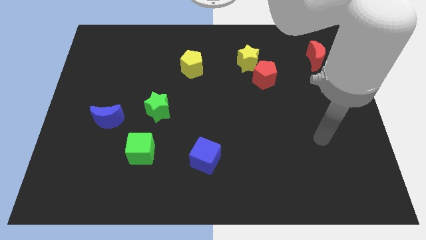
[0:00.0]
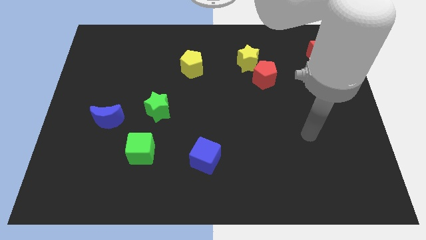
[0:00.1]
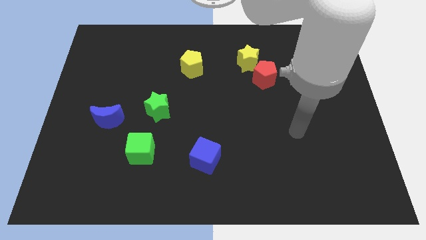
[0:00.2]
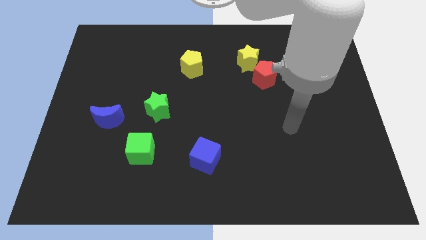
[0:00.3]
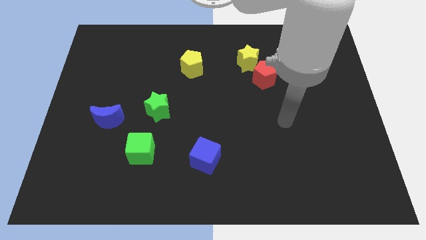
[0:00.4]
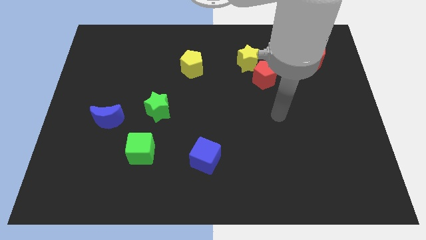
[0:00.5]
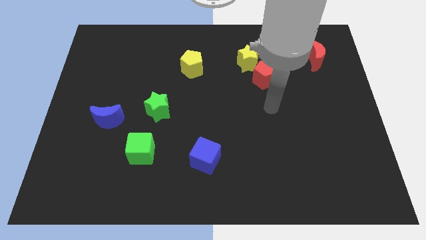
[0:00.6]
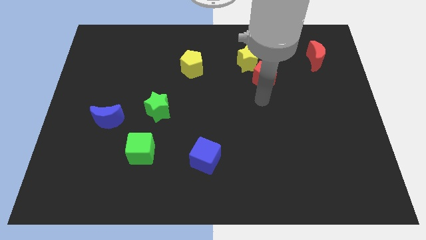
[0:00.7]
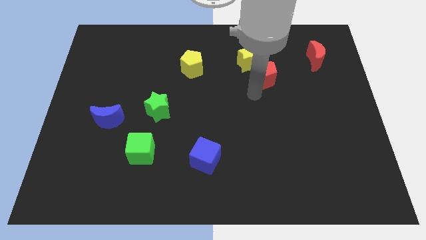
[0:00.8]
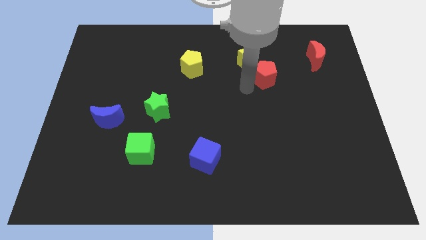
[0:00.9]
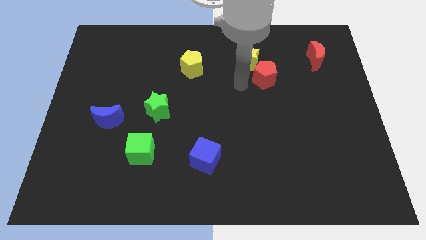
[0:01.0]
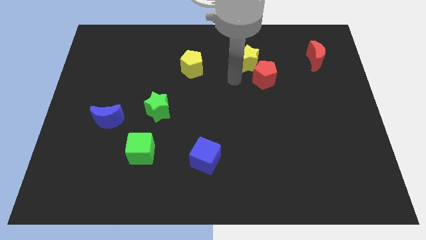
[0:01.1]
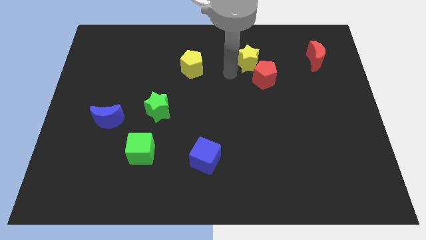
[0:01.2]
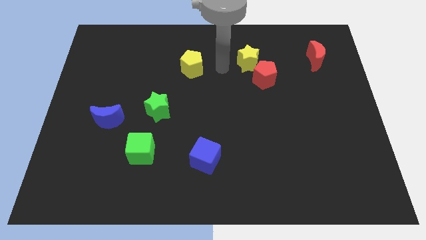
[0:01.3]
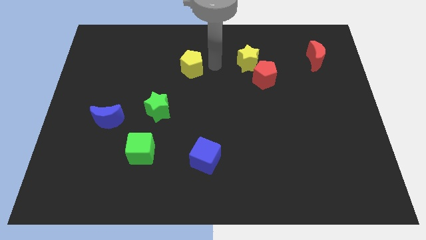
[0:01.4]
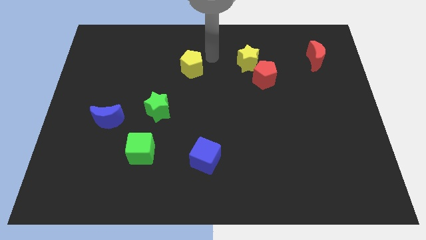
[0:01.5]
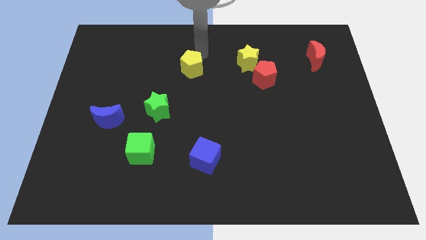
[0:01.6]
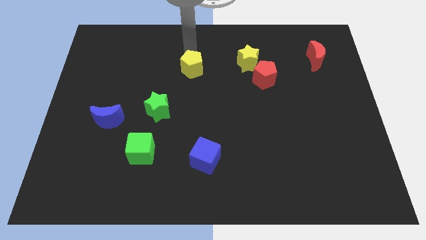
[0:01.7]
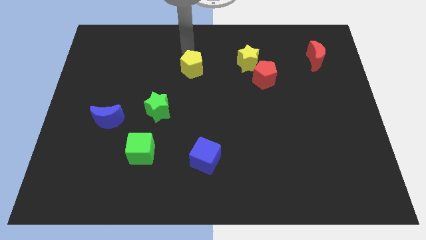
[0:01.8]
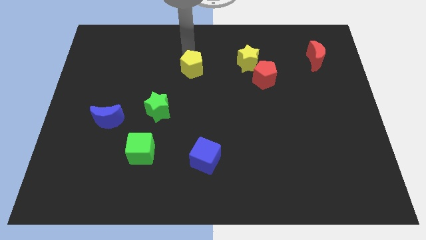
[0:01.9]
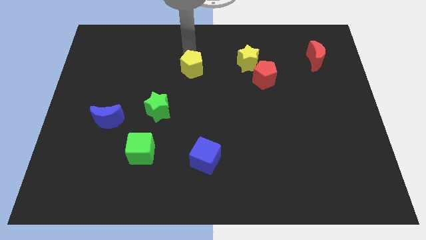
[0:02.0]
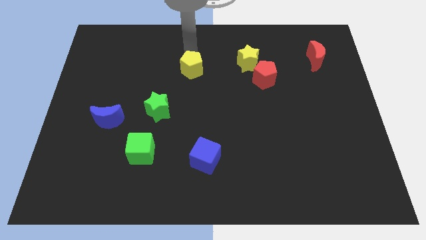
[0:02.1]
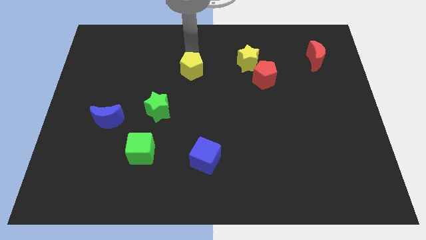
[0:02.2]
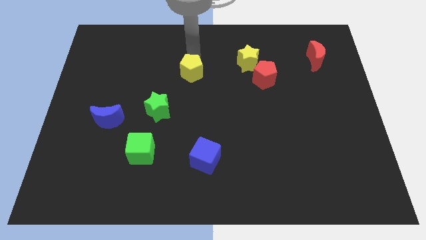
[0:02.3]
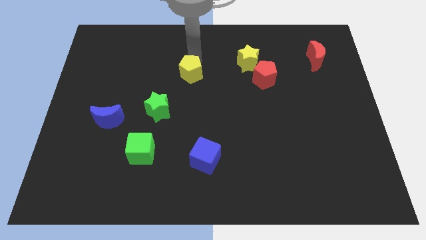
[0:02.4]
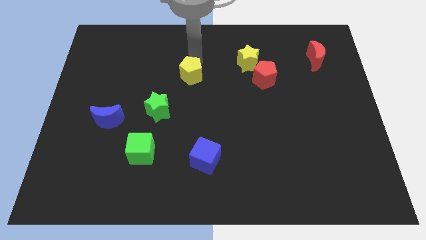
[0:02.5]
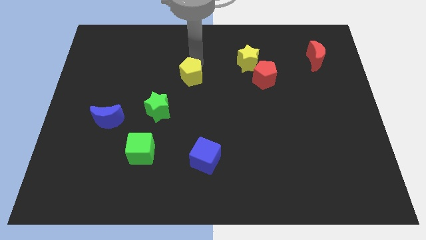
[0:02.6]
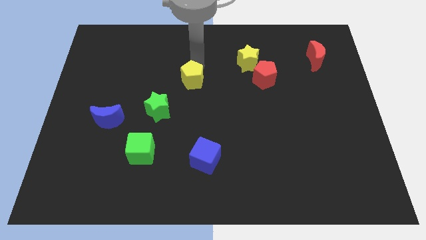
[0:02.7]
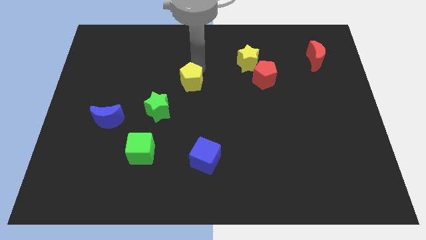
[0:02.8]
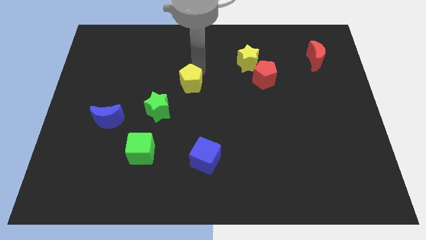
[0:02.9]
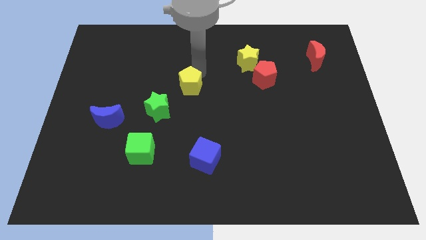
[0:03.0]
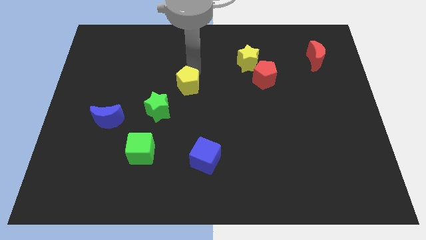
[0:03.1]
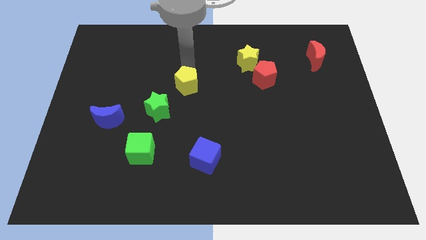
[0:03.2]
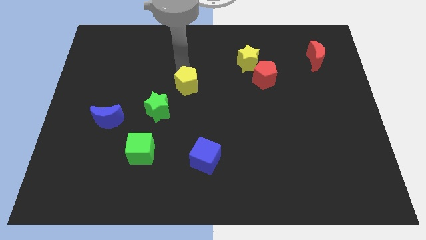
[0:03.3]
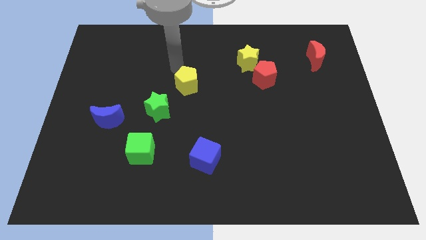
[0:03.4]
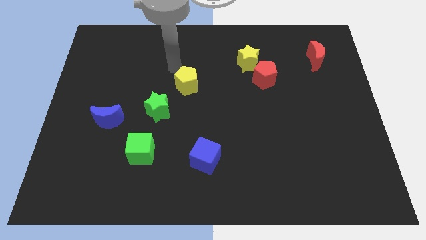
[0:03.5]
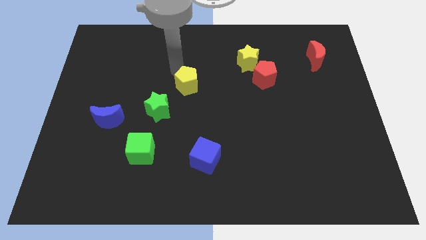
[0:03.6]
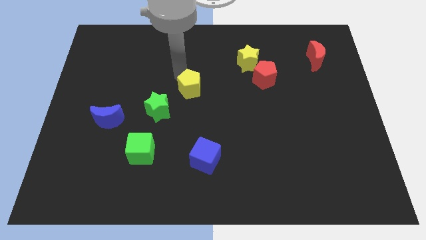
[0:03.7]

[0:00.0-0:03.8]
slide the yellow pentagon downwards somewhat

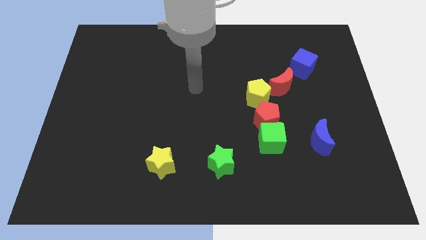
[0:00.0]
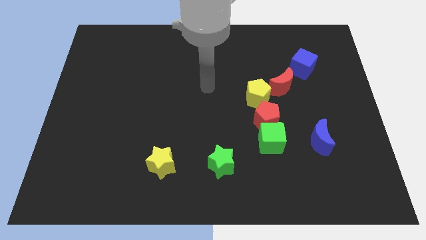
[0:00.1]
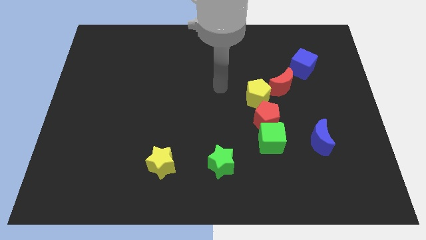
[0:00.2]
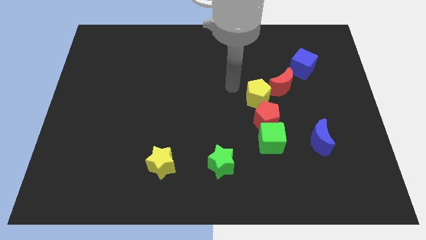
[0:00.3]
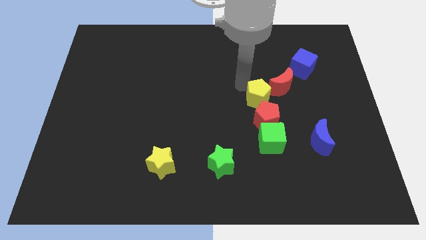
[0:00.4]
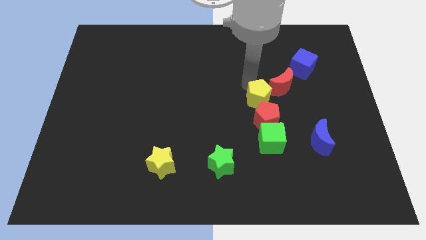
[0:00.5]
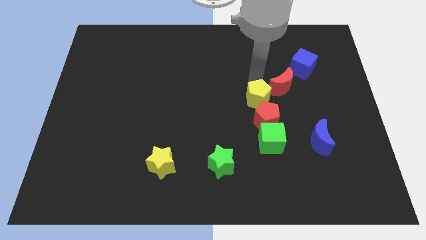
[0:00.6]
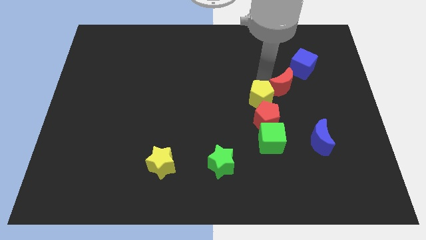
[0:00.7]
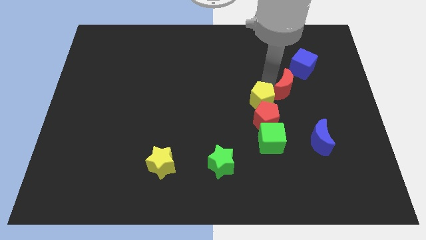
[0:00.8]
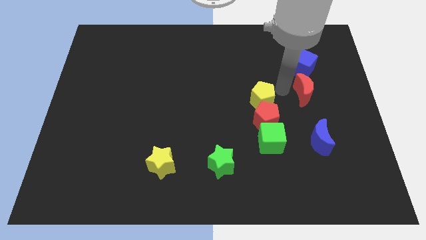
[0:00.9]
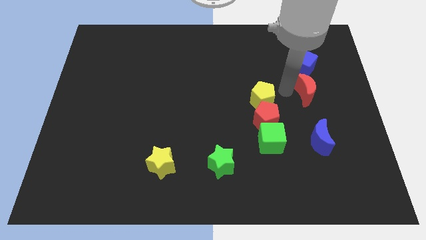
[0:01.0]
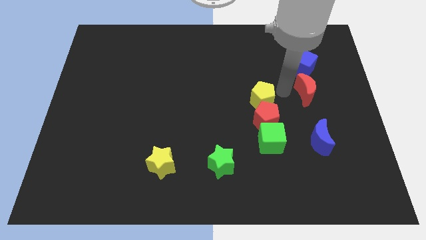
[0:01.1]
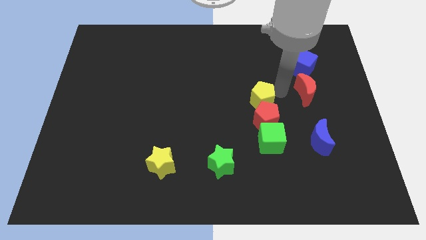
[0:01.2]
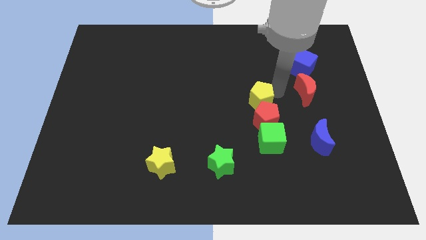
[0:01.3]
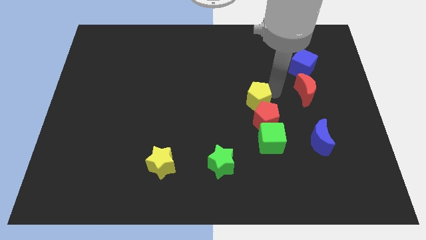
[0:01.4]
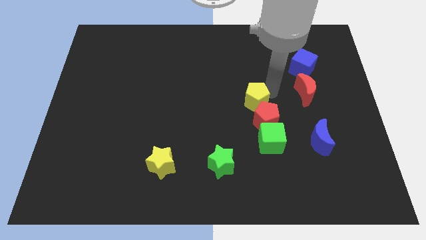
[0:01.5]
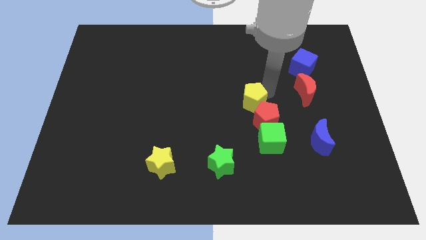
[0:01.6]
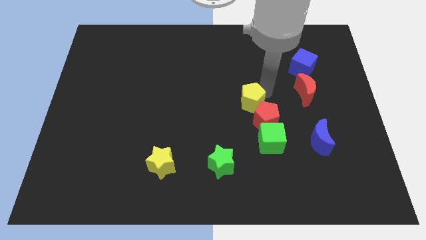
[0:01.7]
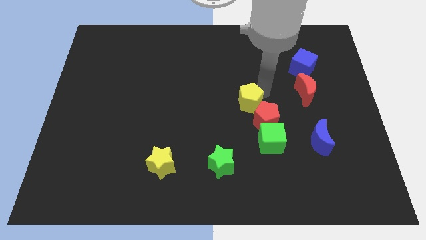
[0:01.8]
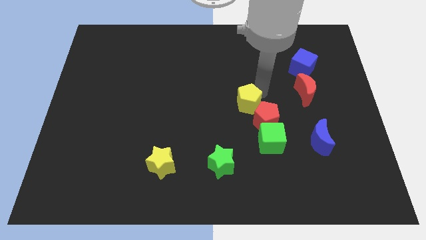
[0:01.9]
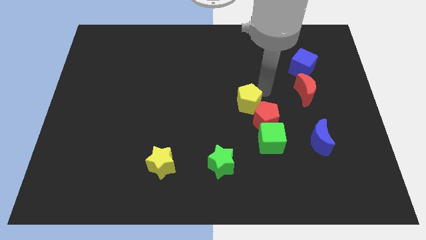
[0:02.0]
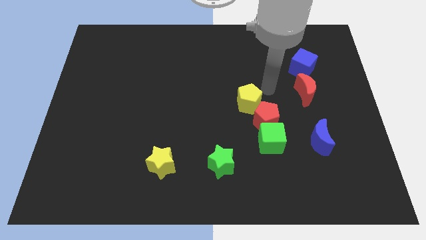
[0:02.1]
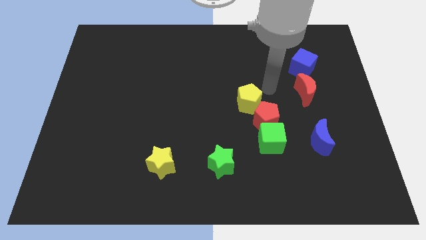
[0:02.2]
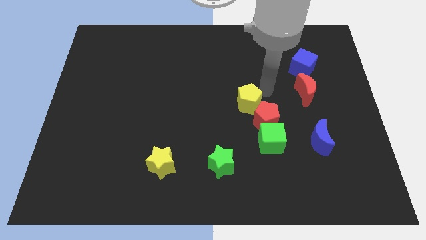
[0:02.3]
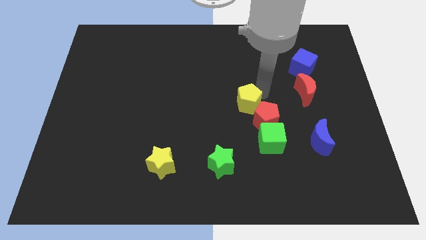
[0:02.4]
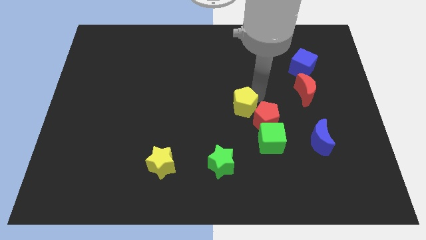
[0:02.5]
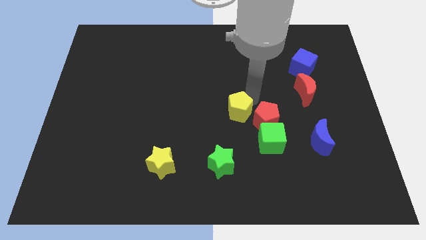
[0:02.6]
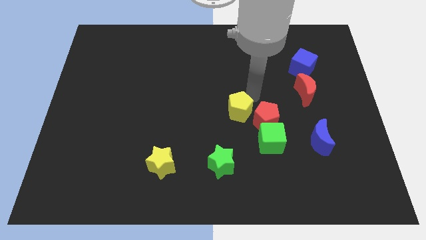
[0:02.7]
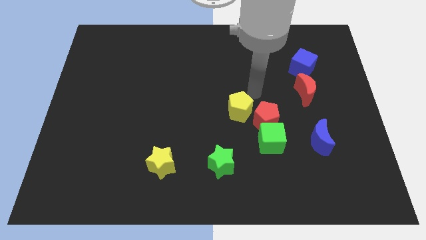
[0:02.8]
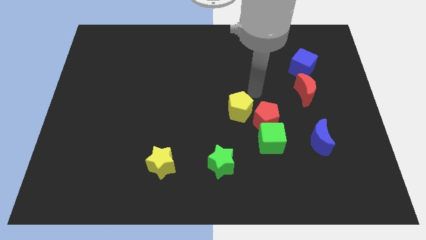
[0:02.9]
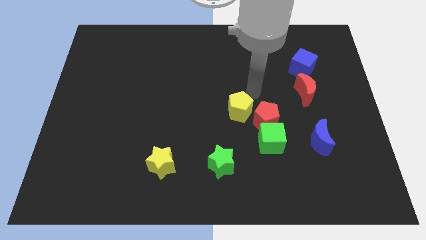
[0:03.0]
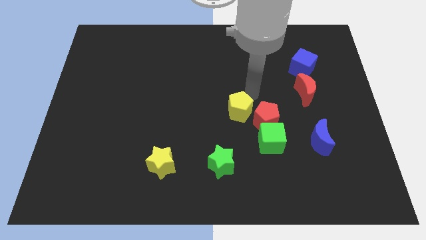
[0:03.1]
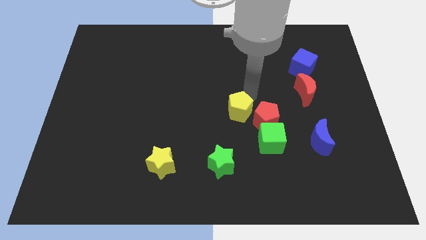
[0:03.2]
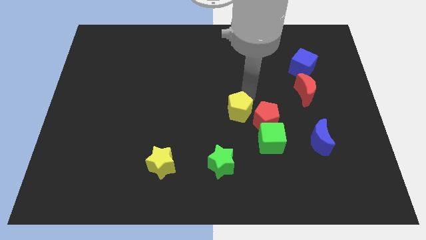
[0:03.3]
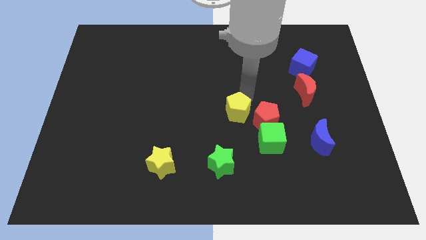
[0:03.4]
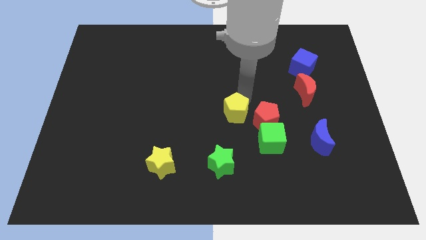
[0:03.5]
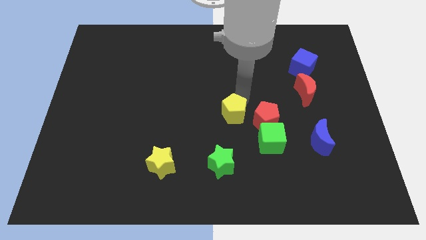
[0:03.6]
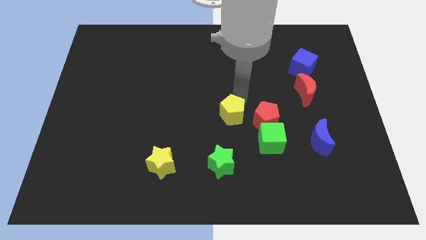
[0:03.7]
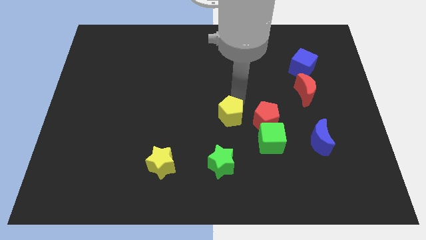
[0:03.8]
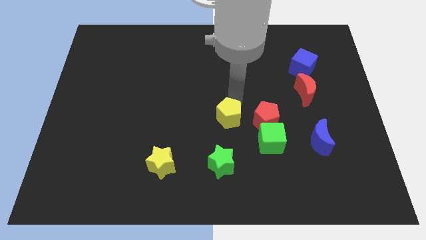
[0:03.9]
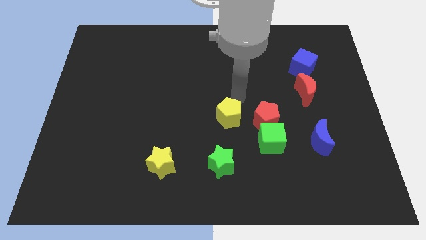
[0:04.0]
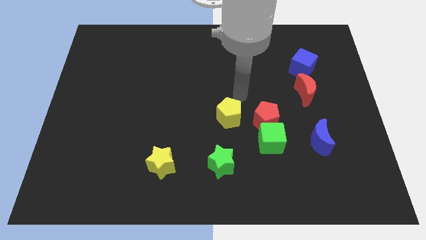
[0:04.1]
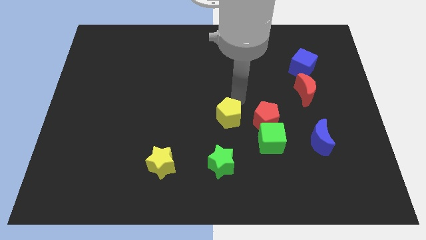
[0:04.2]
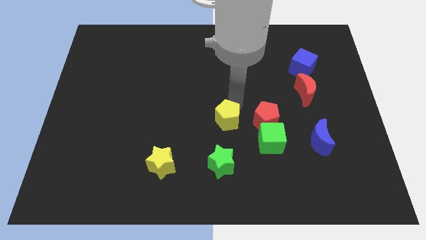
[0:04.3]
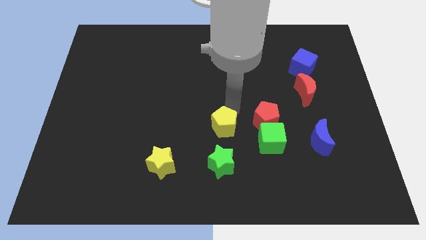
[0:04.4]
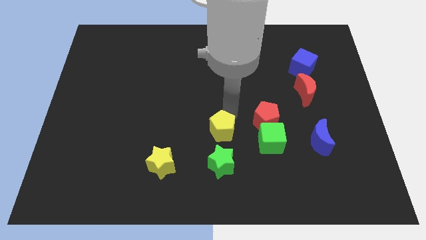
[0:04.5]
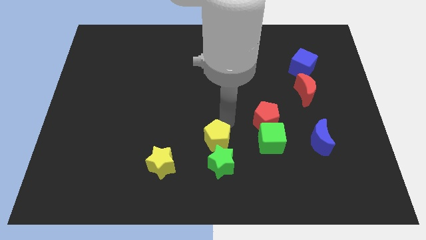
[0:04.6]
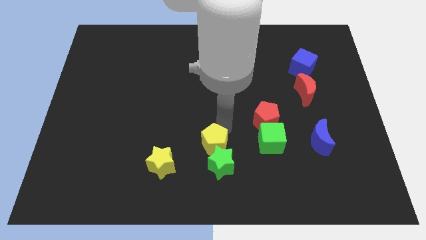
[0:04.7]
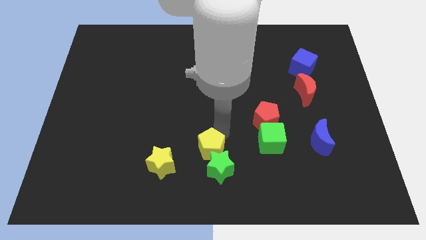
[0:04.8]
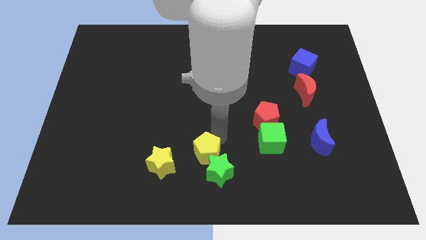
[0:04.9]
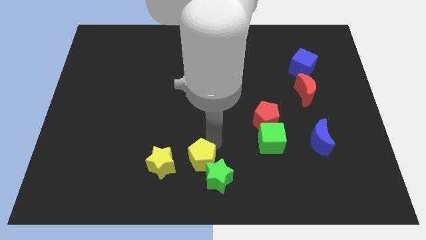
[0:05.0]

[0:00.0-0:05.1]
slide the yellow pentagon down and left diagonally
